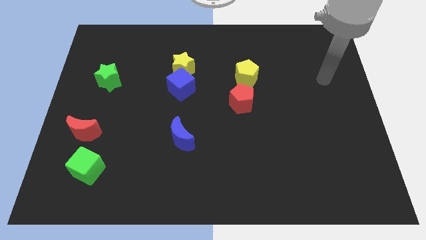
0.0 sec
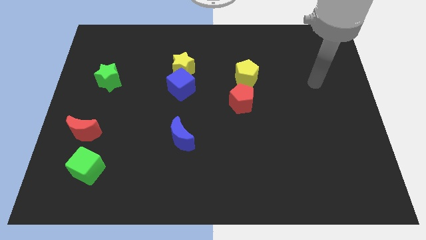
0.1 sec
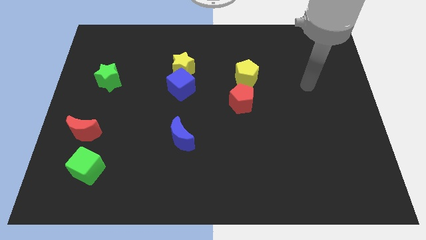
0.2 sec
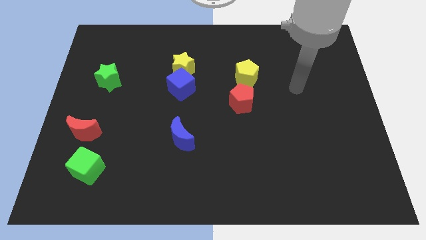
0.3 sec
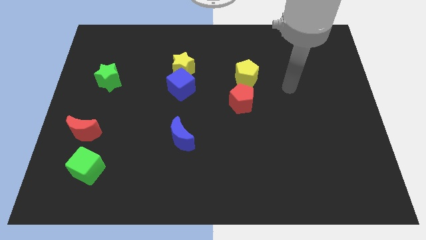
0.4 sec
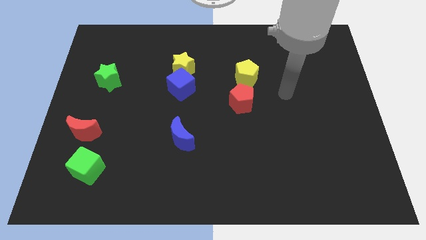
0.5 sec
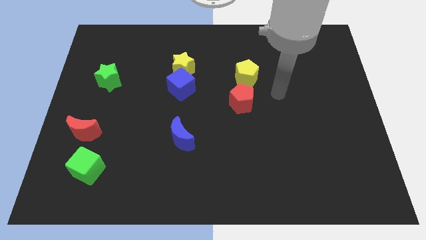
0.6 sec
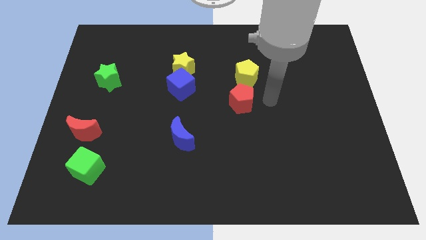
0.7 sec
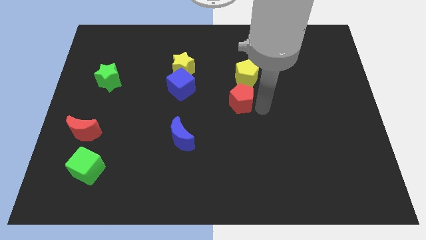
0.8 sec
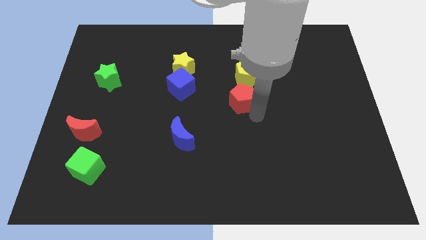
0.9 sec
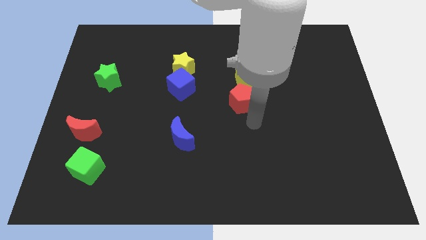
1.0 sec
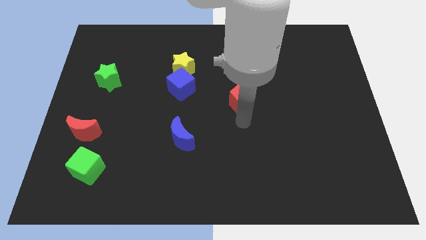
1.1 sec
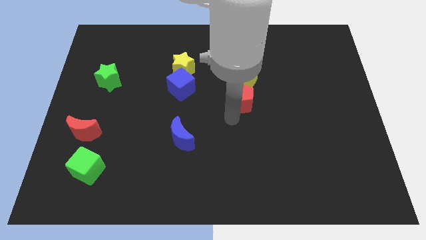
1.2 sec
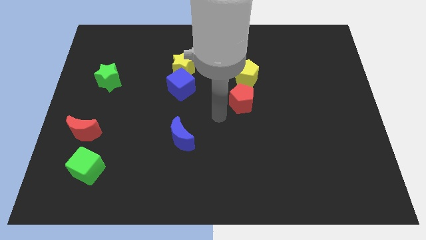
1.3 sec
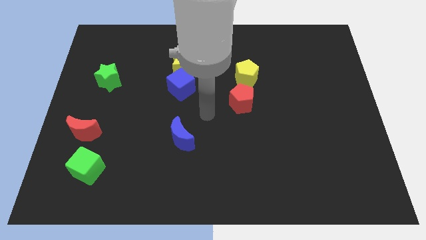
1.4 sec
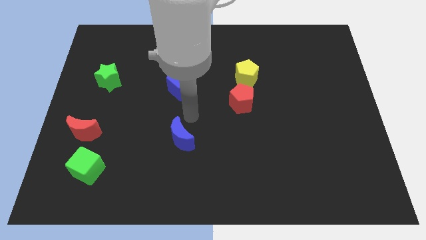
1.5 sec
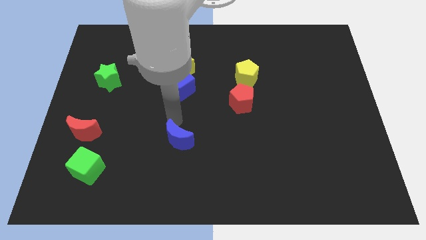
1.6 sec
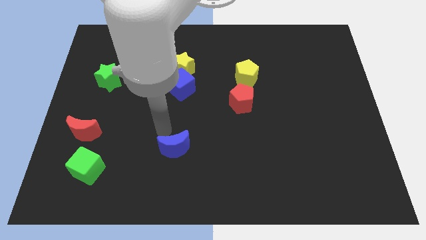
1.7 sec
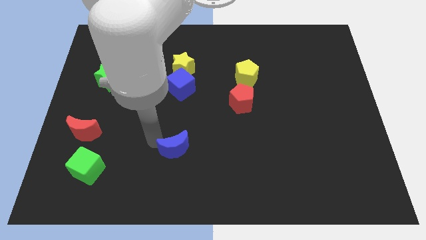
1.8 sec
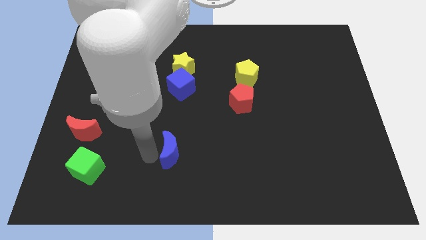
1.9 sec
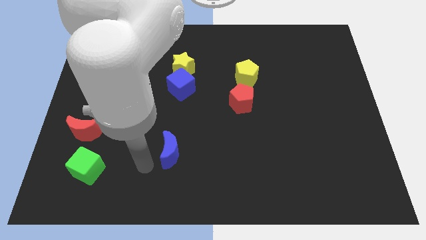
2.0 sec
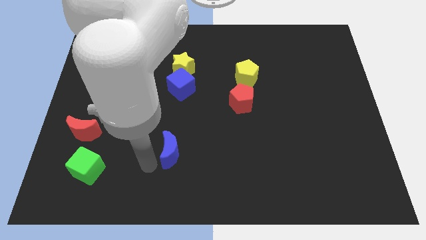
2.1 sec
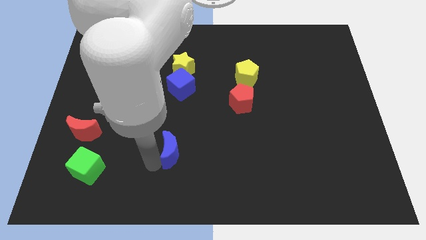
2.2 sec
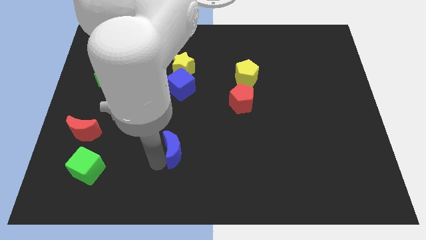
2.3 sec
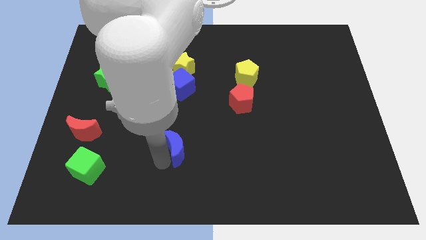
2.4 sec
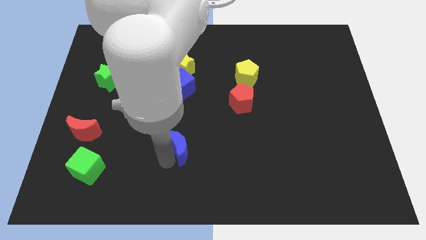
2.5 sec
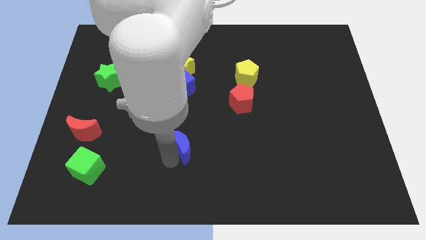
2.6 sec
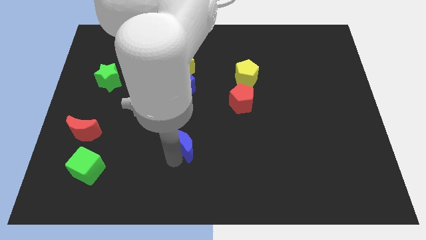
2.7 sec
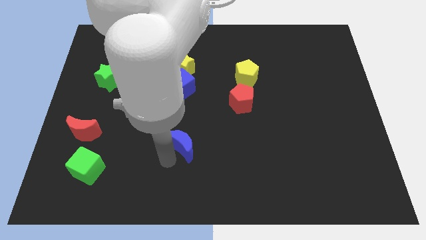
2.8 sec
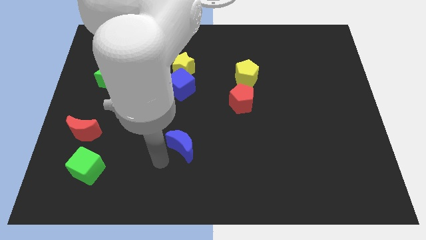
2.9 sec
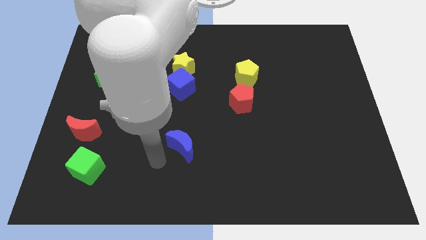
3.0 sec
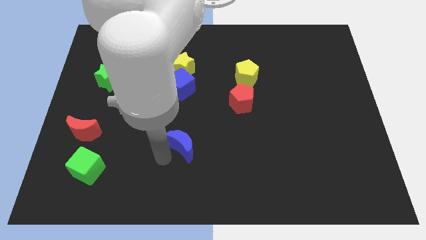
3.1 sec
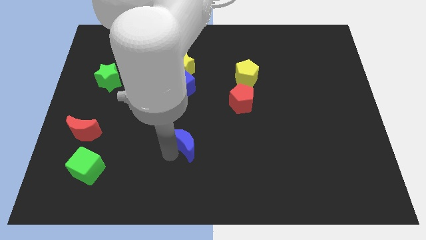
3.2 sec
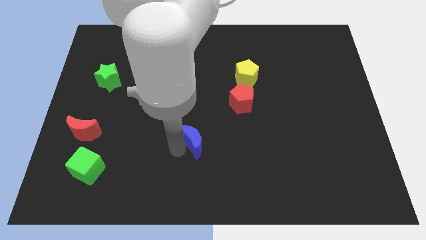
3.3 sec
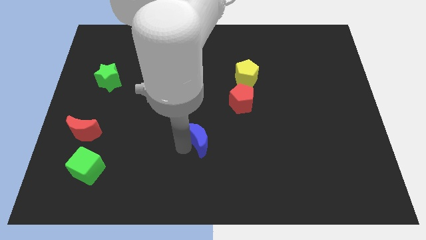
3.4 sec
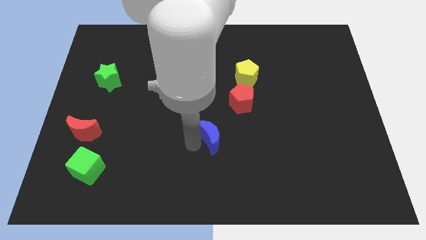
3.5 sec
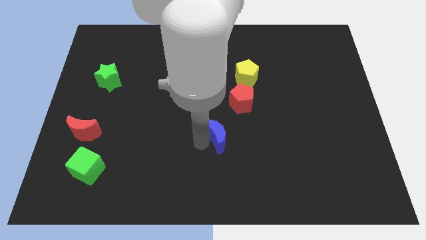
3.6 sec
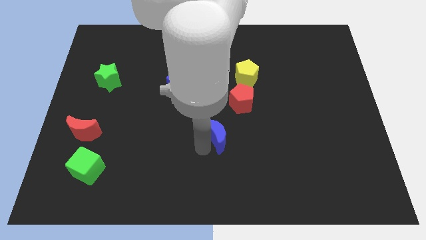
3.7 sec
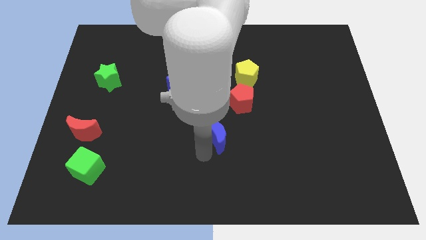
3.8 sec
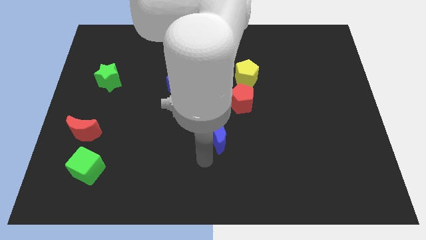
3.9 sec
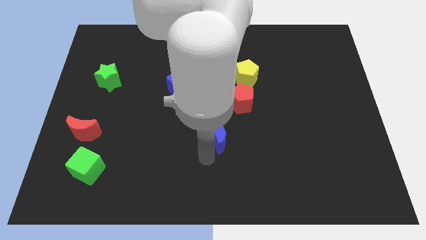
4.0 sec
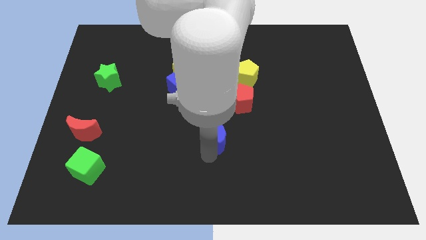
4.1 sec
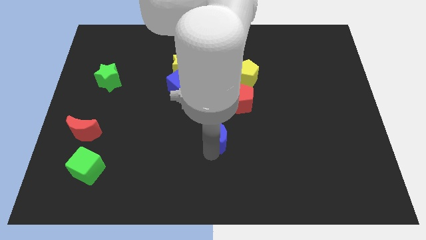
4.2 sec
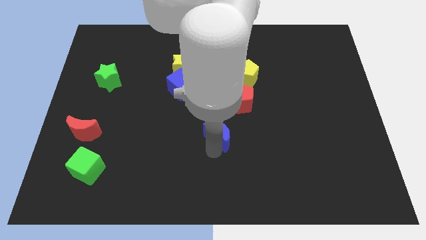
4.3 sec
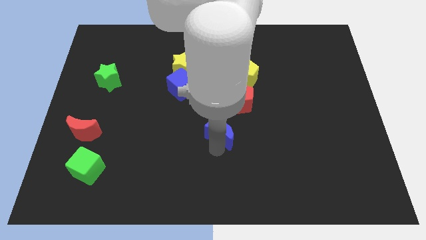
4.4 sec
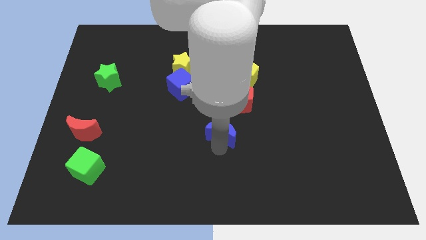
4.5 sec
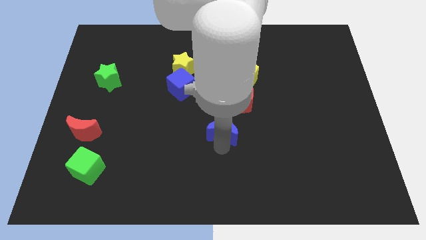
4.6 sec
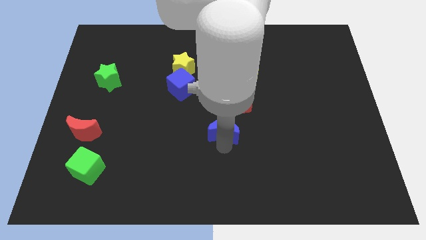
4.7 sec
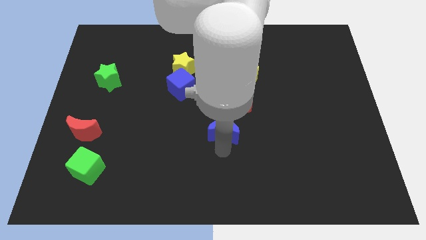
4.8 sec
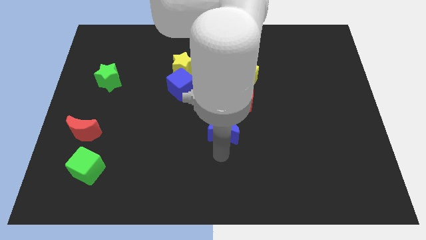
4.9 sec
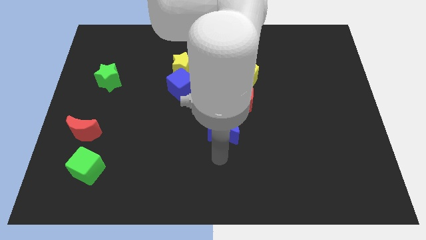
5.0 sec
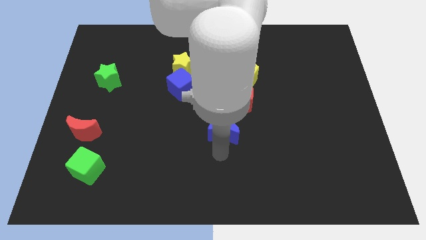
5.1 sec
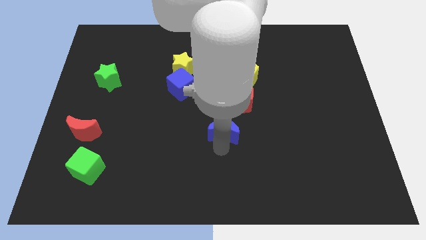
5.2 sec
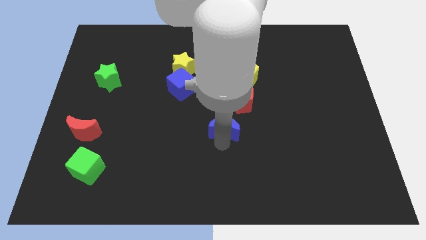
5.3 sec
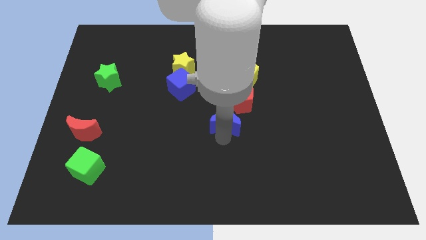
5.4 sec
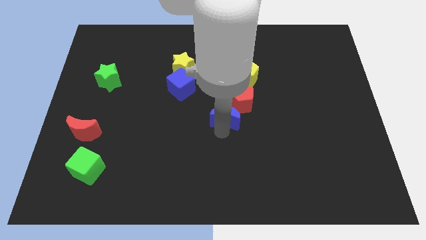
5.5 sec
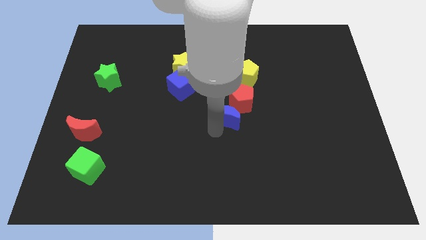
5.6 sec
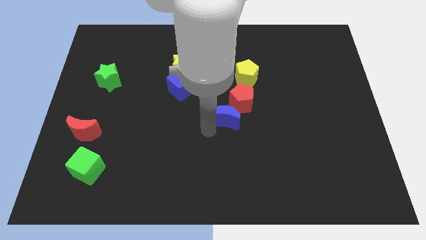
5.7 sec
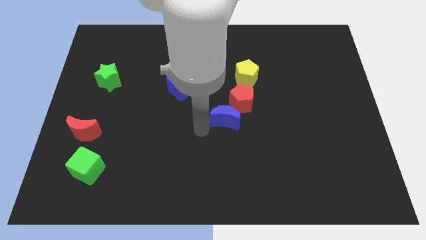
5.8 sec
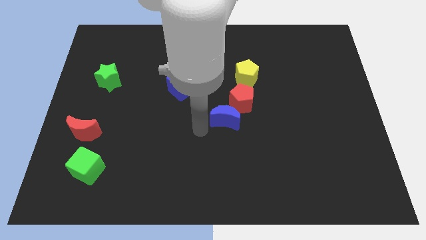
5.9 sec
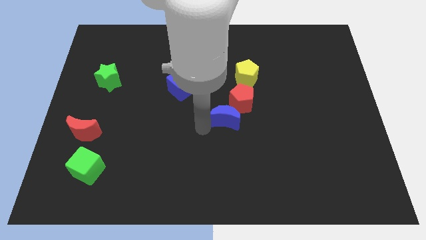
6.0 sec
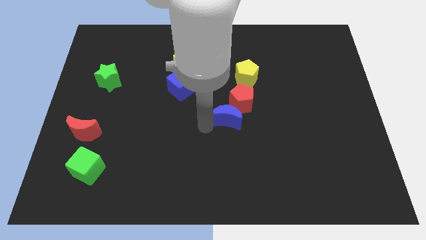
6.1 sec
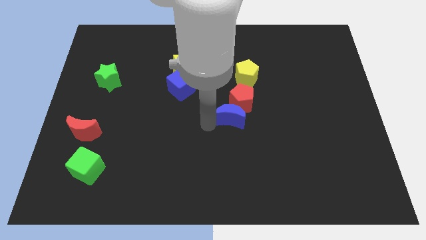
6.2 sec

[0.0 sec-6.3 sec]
move the blue moon below the yellow pentagon

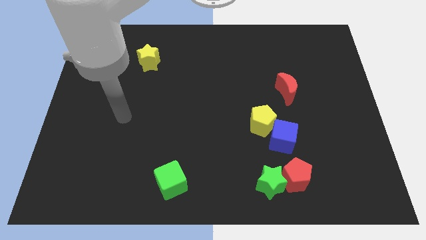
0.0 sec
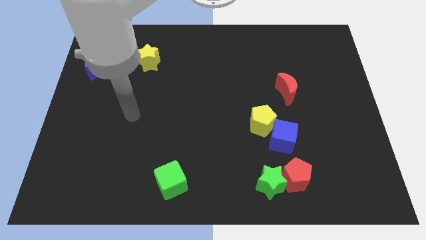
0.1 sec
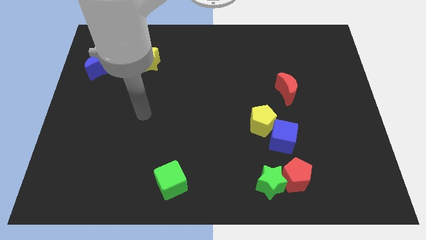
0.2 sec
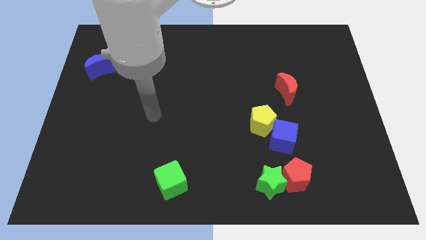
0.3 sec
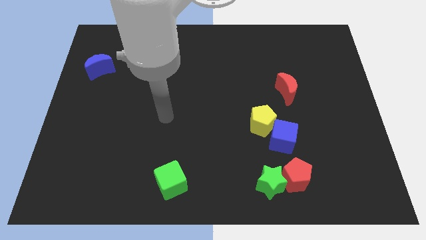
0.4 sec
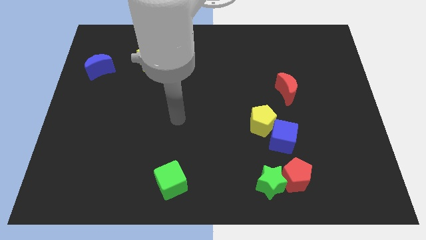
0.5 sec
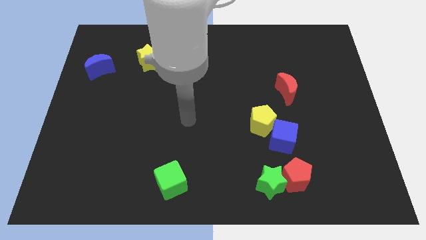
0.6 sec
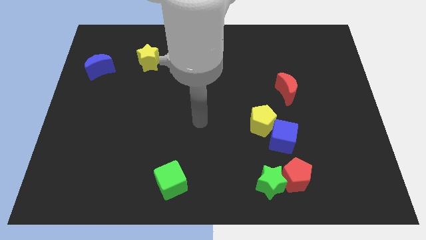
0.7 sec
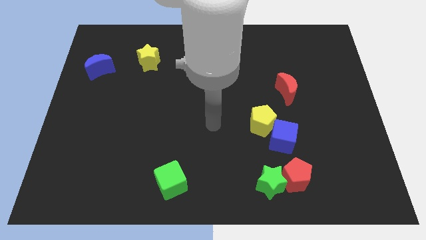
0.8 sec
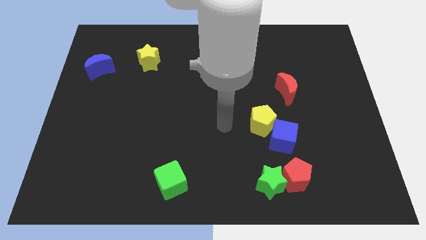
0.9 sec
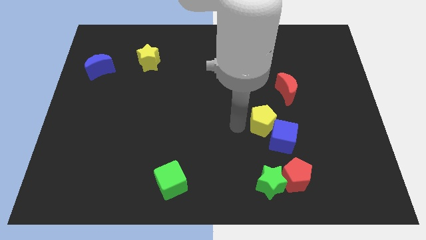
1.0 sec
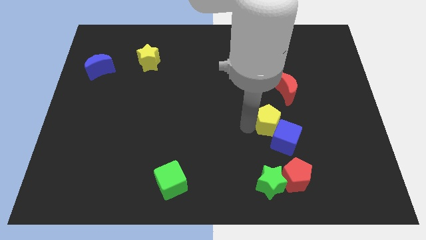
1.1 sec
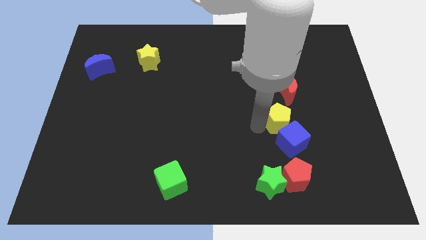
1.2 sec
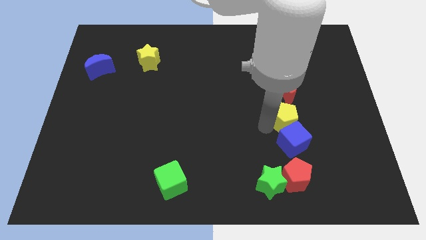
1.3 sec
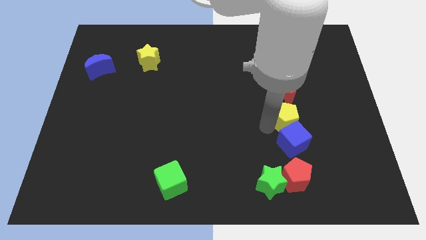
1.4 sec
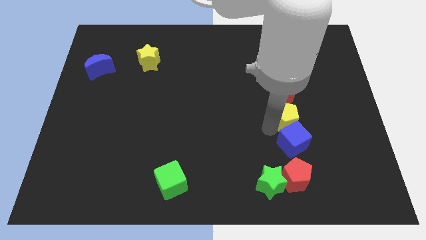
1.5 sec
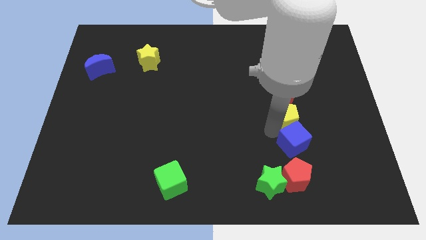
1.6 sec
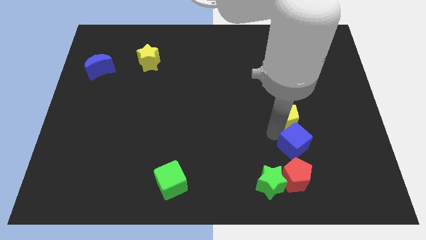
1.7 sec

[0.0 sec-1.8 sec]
move the blue cube diagonally up and to the right of the red pentagon
